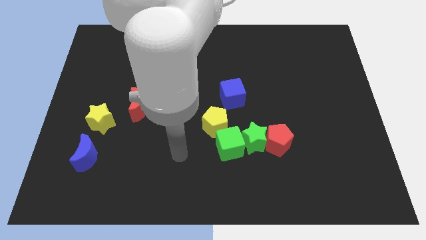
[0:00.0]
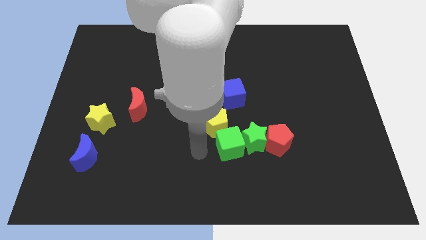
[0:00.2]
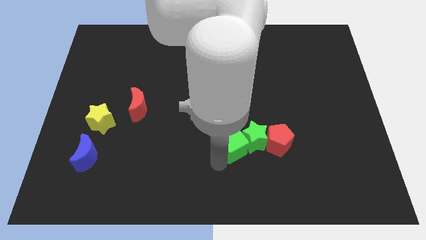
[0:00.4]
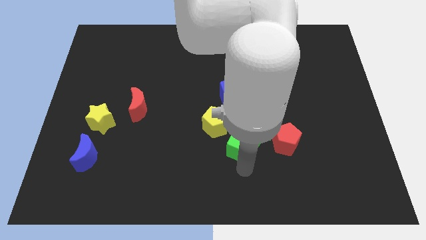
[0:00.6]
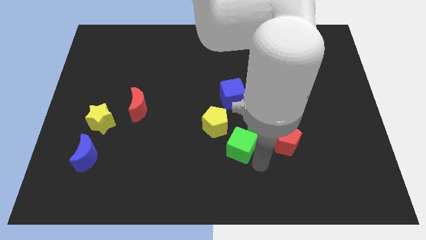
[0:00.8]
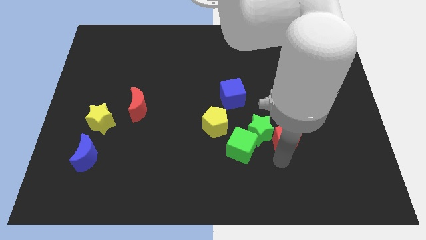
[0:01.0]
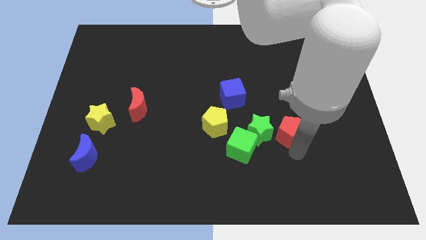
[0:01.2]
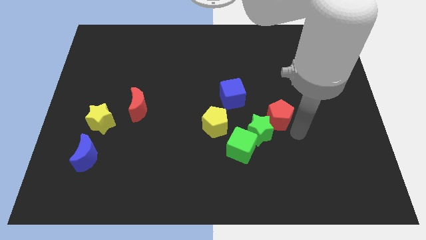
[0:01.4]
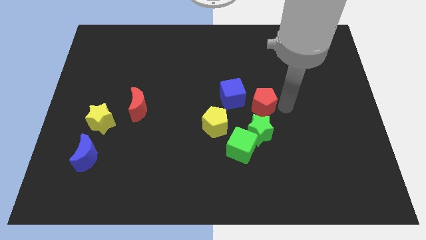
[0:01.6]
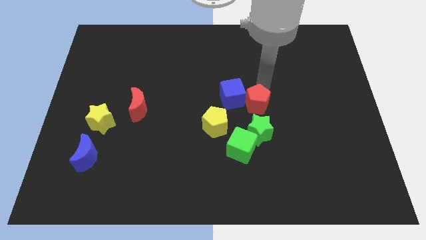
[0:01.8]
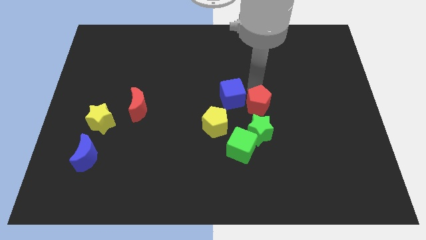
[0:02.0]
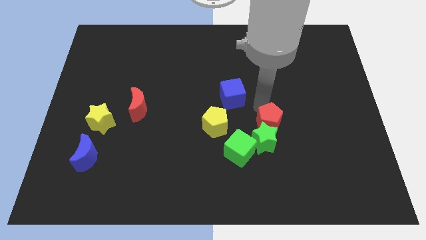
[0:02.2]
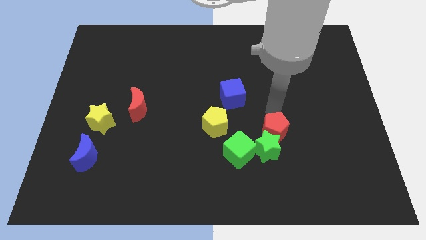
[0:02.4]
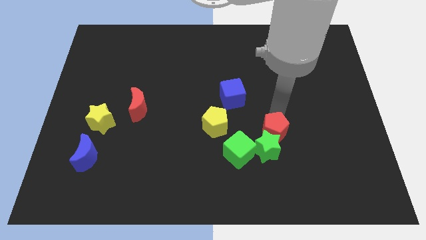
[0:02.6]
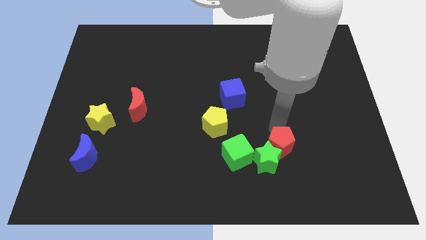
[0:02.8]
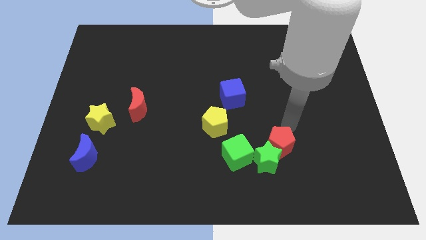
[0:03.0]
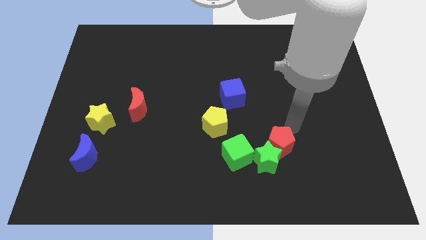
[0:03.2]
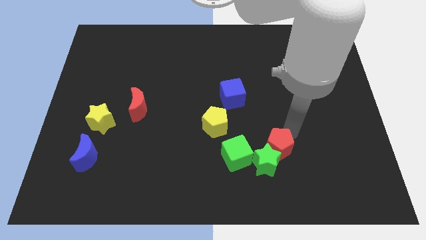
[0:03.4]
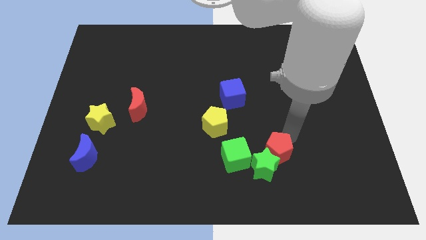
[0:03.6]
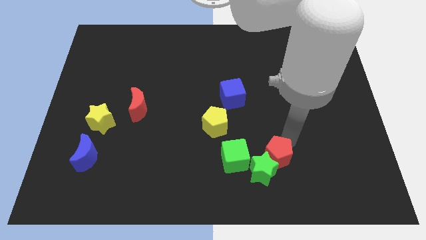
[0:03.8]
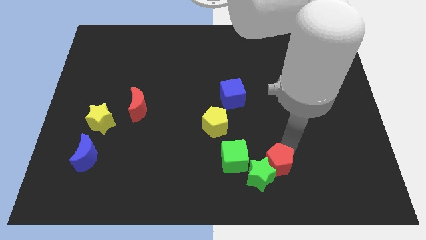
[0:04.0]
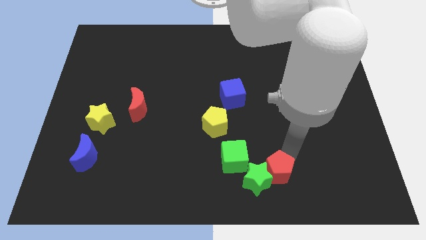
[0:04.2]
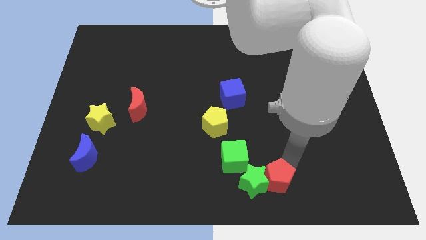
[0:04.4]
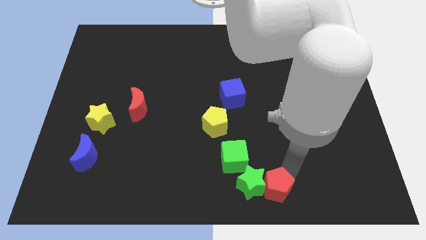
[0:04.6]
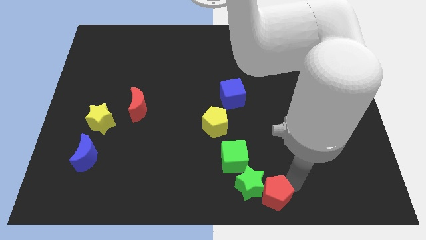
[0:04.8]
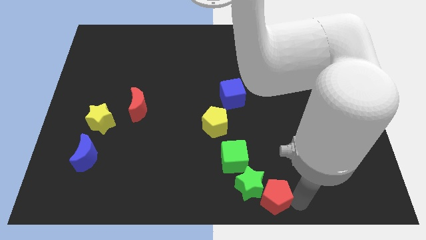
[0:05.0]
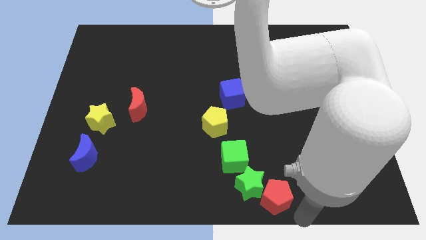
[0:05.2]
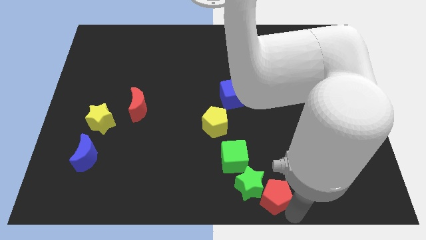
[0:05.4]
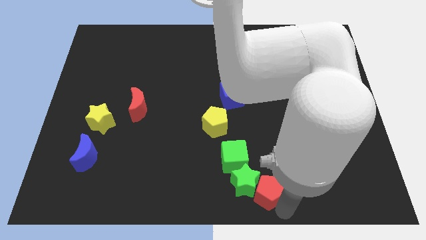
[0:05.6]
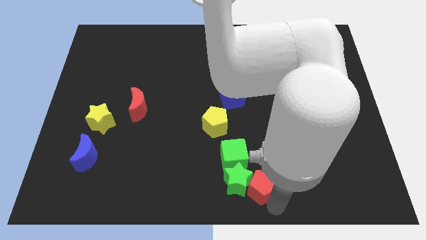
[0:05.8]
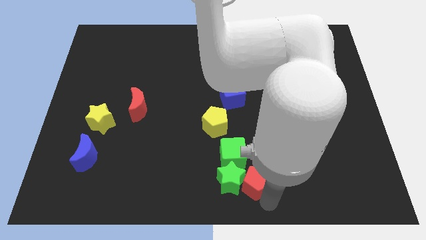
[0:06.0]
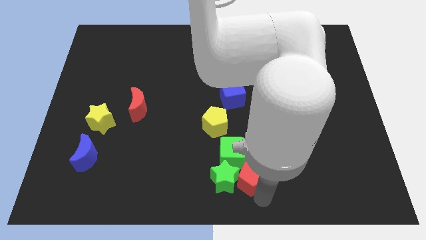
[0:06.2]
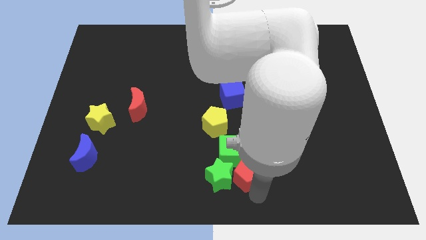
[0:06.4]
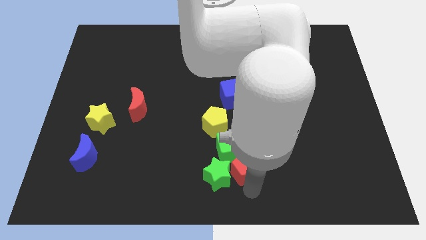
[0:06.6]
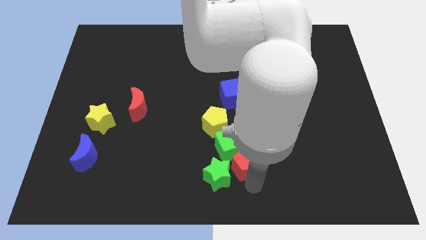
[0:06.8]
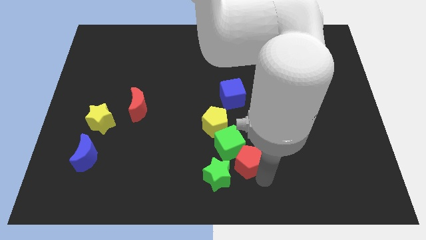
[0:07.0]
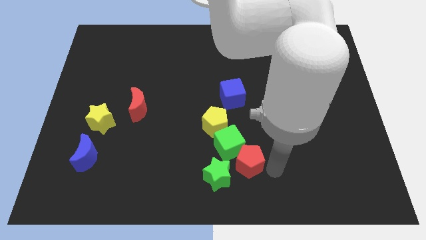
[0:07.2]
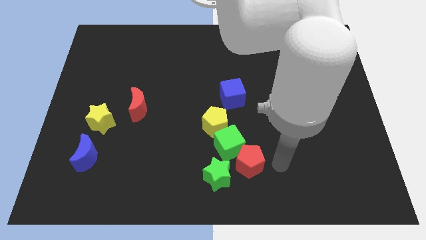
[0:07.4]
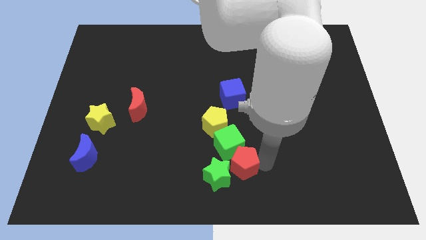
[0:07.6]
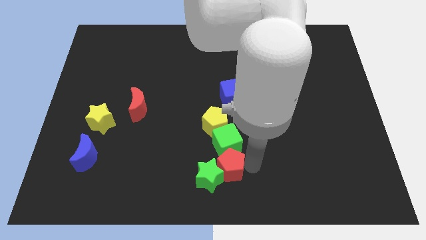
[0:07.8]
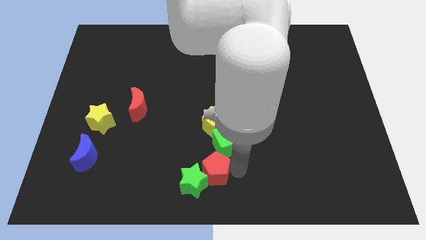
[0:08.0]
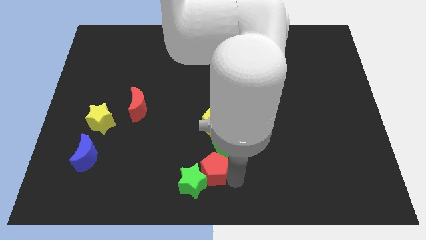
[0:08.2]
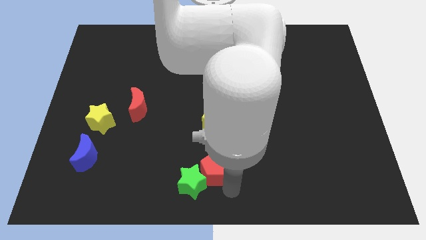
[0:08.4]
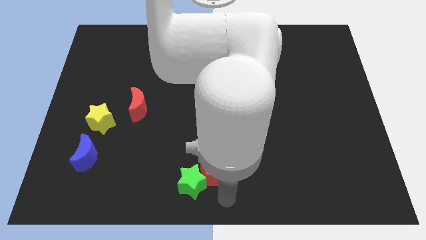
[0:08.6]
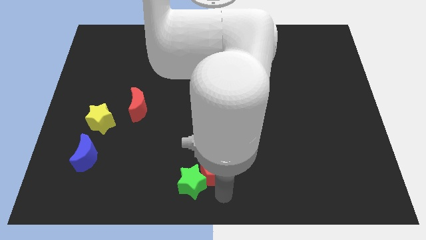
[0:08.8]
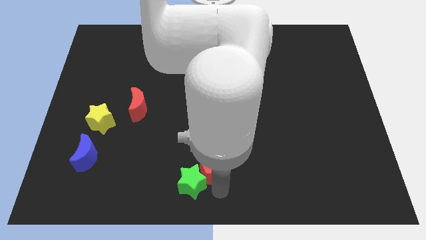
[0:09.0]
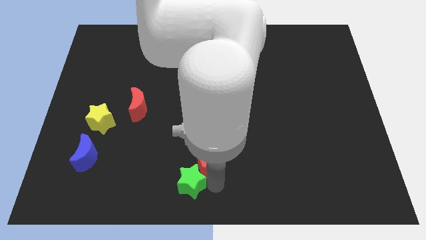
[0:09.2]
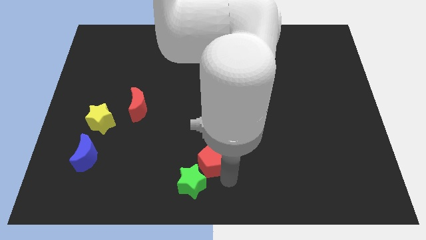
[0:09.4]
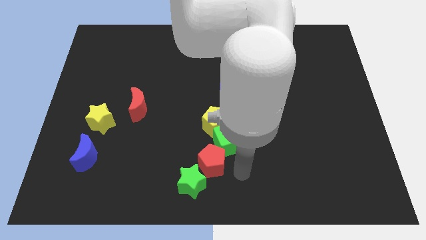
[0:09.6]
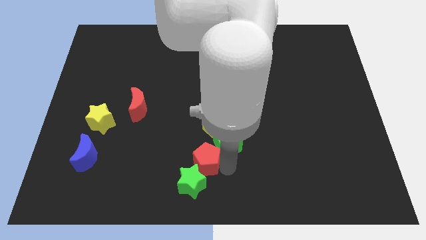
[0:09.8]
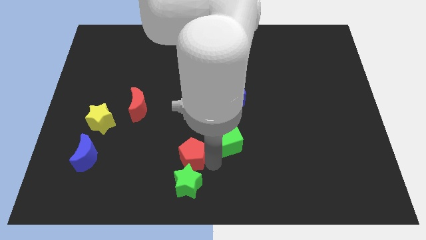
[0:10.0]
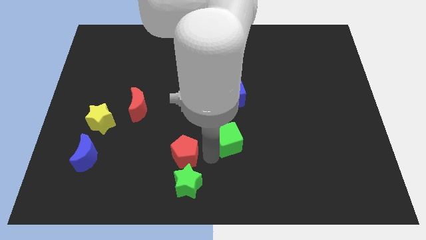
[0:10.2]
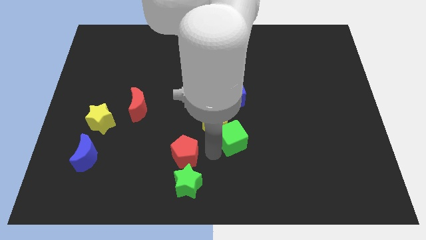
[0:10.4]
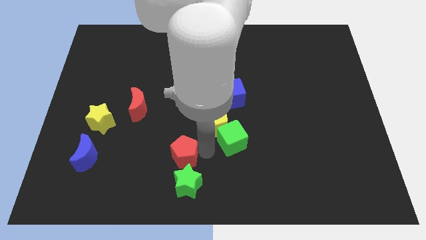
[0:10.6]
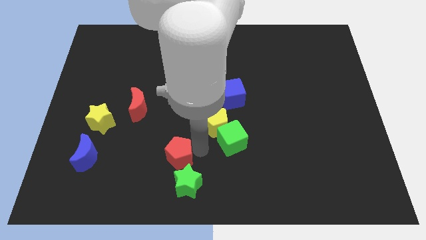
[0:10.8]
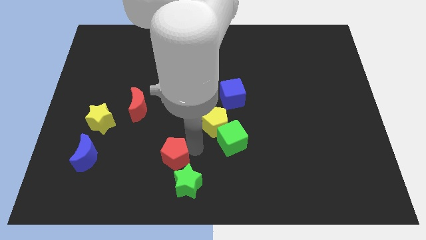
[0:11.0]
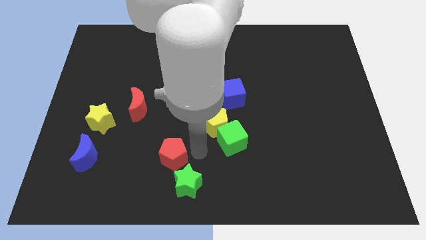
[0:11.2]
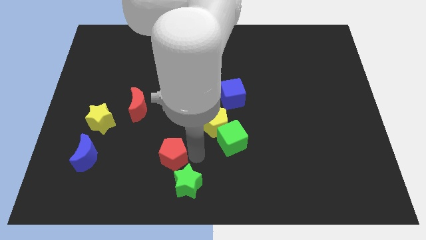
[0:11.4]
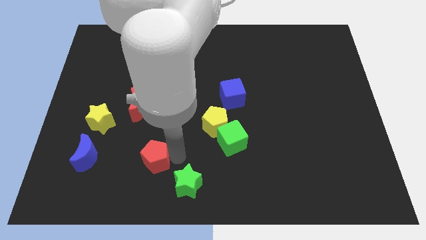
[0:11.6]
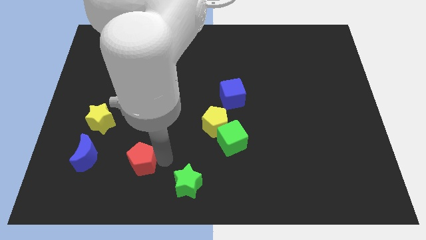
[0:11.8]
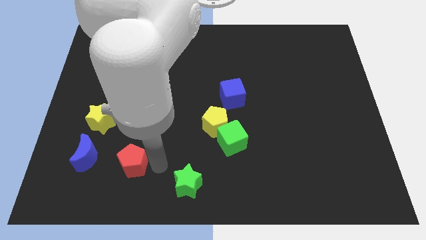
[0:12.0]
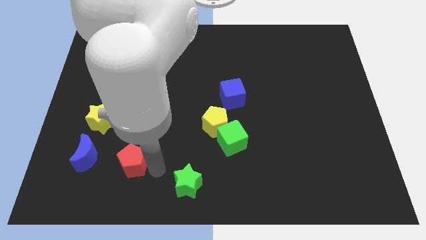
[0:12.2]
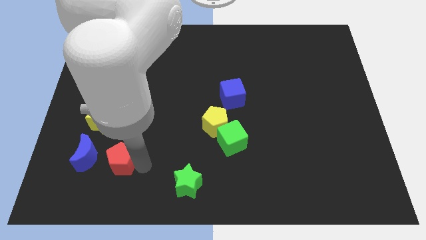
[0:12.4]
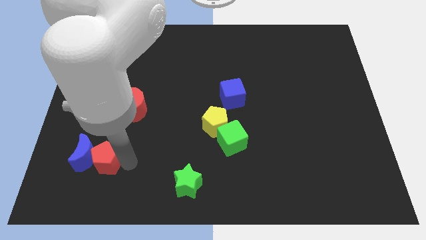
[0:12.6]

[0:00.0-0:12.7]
move the red pentagon towards the blue moon

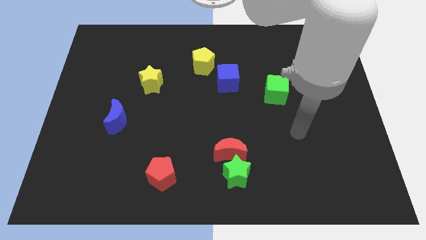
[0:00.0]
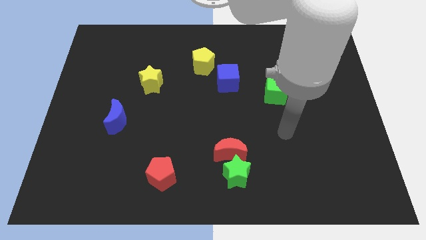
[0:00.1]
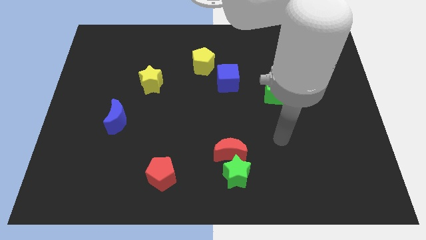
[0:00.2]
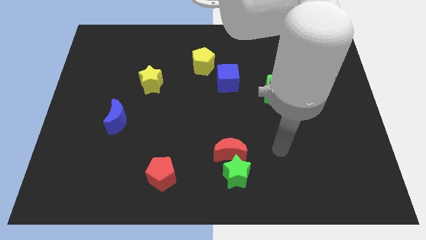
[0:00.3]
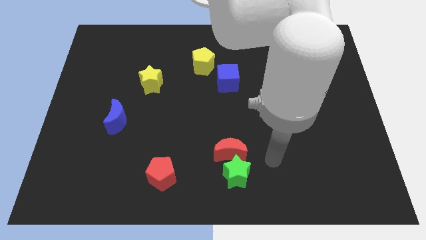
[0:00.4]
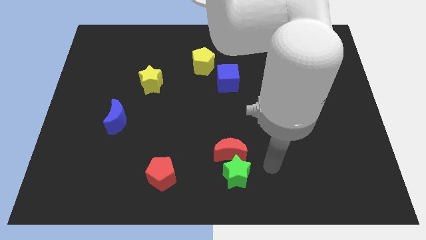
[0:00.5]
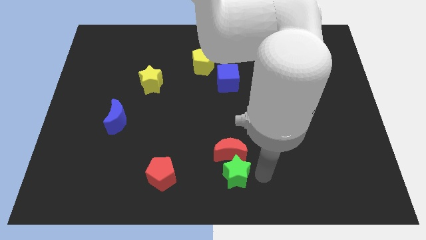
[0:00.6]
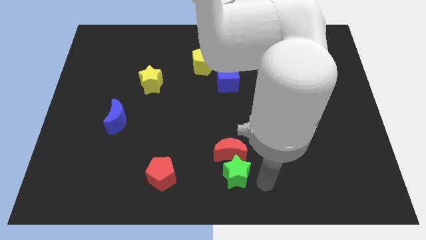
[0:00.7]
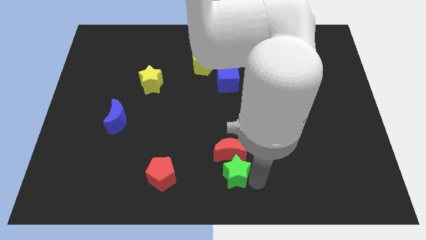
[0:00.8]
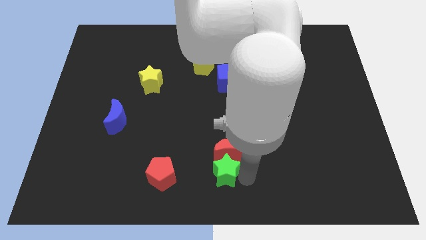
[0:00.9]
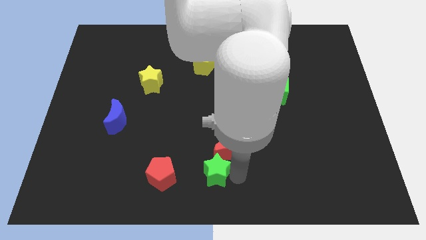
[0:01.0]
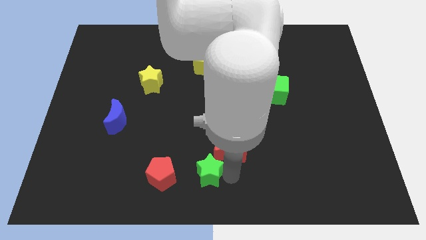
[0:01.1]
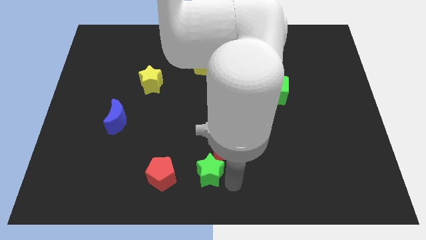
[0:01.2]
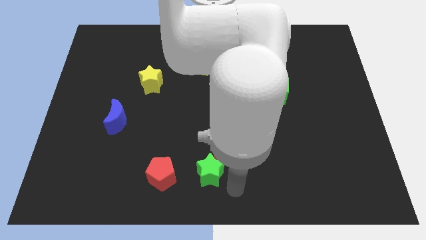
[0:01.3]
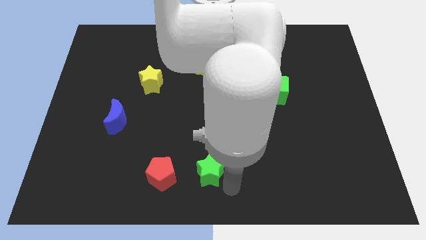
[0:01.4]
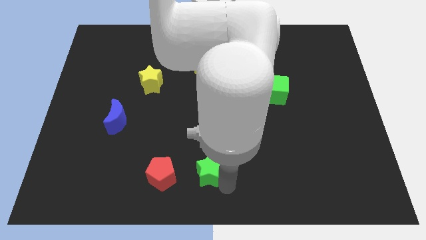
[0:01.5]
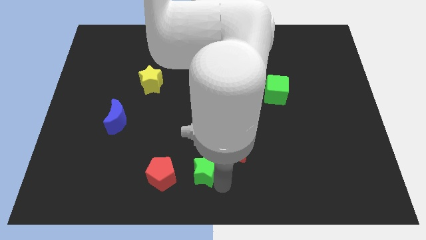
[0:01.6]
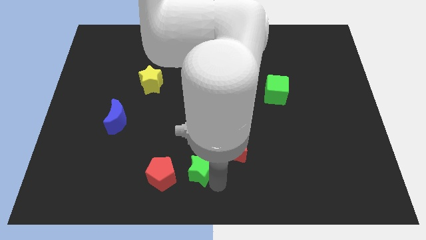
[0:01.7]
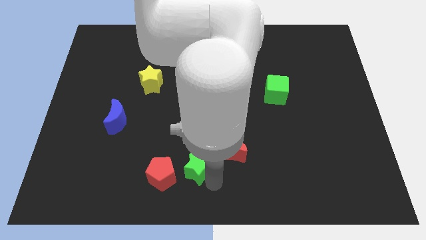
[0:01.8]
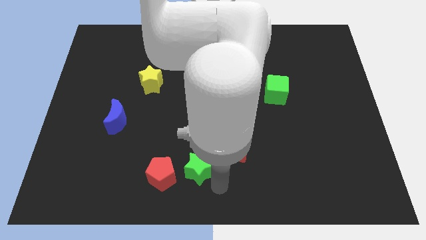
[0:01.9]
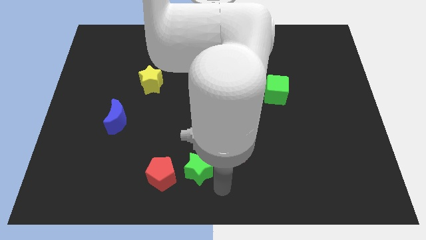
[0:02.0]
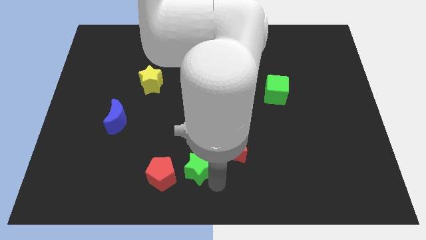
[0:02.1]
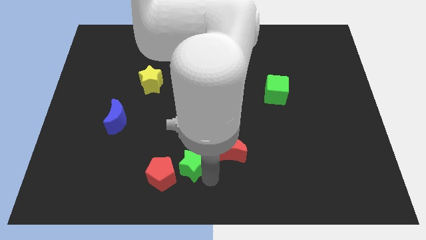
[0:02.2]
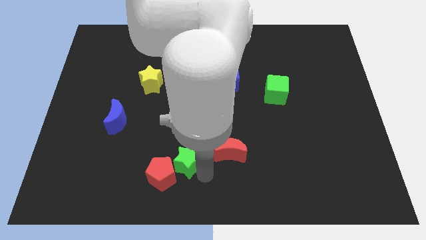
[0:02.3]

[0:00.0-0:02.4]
move the green star towards the red pentagon
